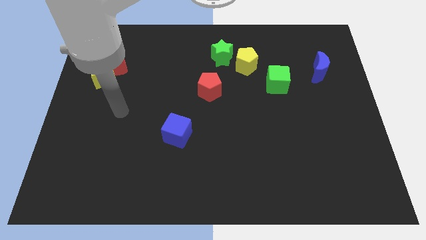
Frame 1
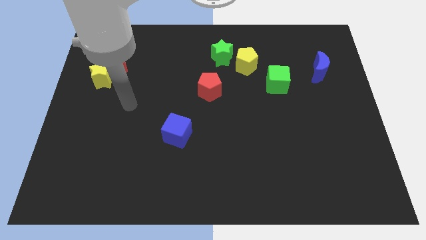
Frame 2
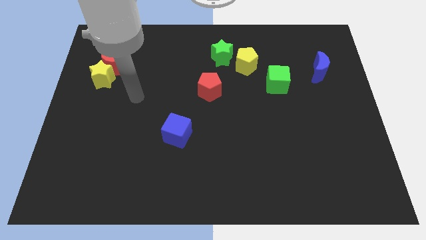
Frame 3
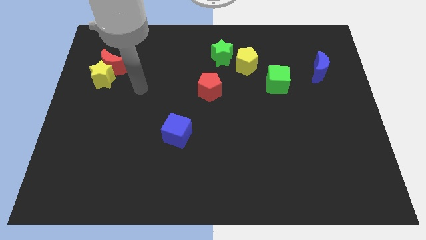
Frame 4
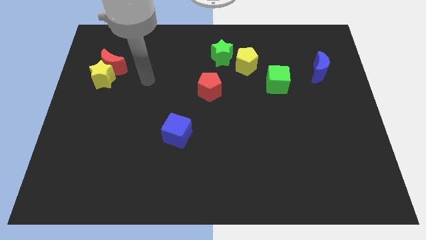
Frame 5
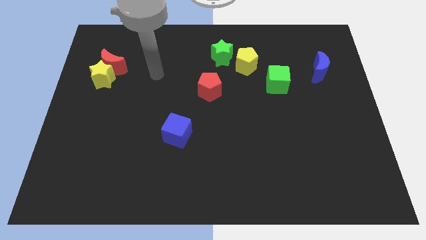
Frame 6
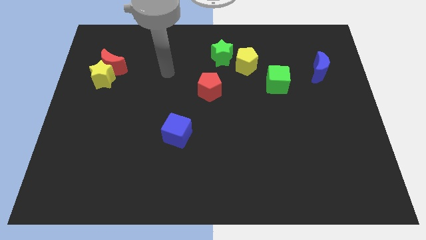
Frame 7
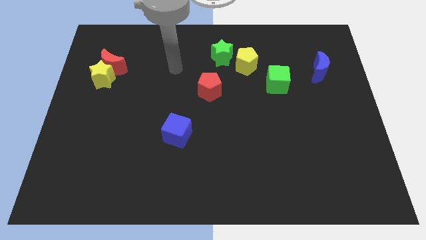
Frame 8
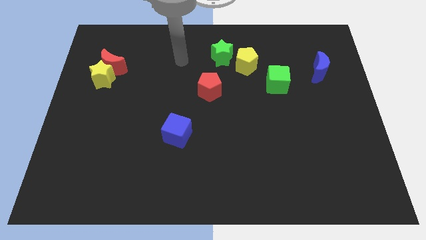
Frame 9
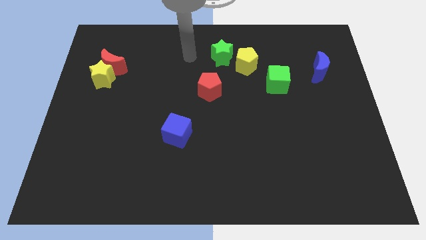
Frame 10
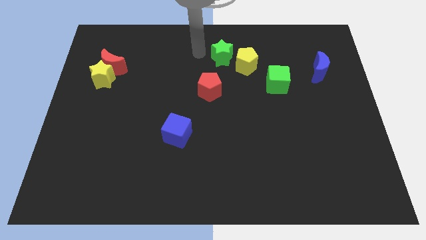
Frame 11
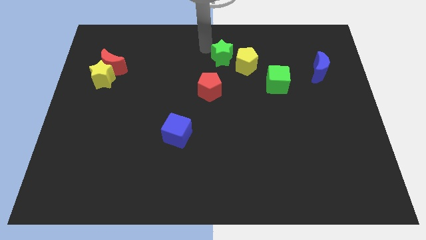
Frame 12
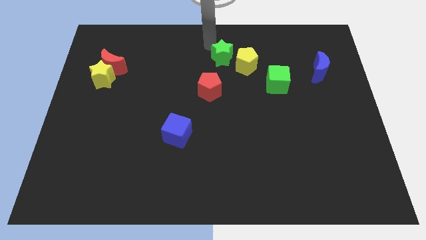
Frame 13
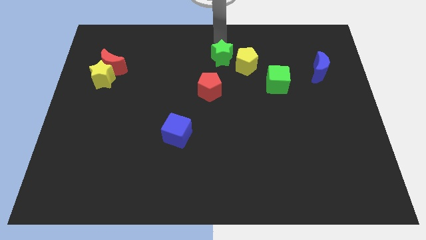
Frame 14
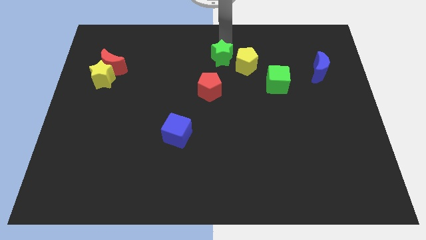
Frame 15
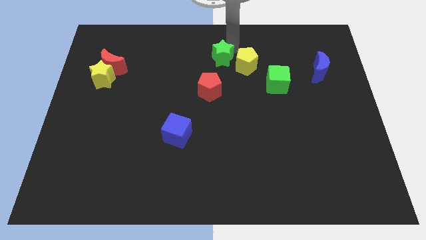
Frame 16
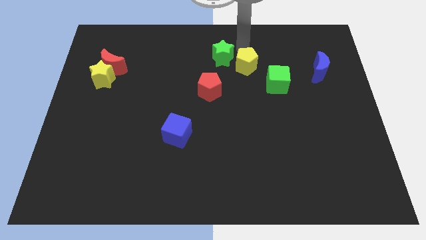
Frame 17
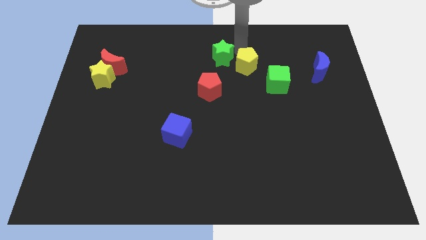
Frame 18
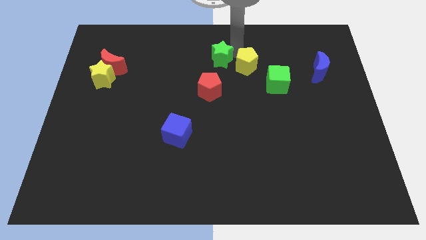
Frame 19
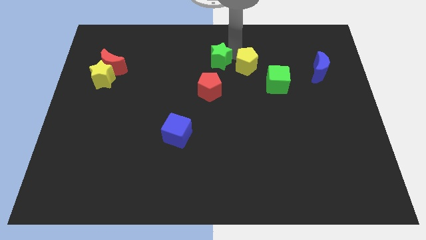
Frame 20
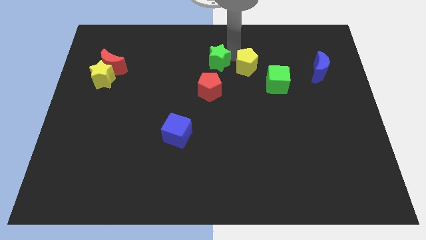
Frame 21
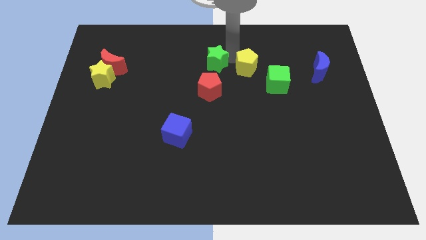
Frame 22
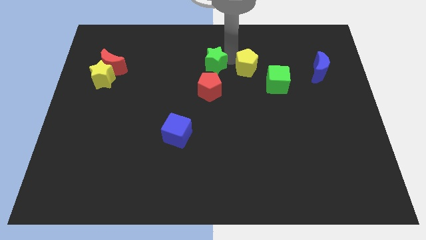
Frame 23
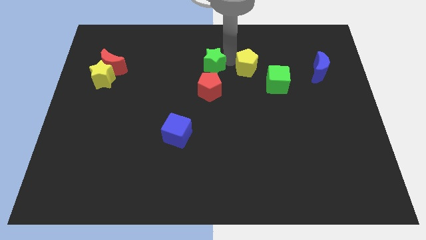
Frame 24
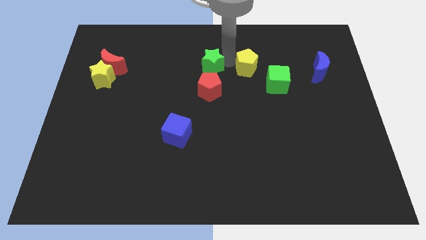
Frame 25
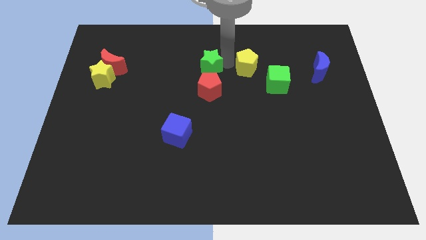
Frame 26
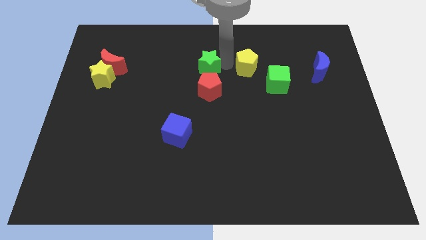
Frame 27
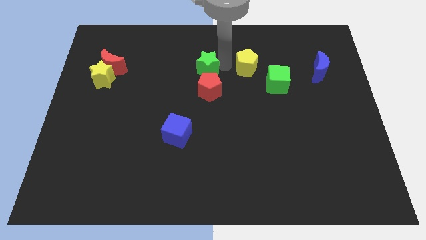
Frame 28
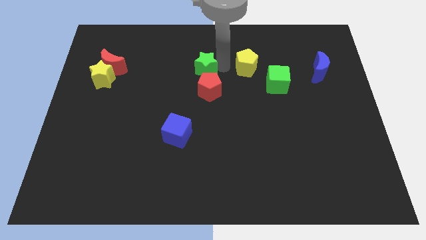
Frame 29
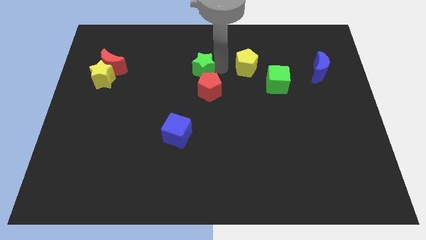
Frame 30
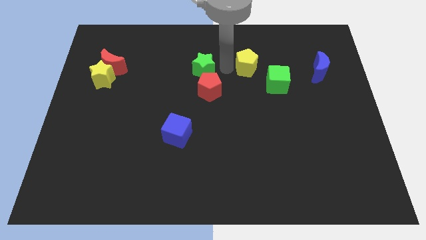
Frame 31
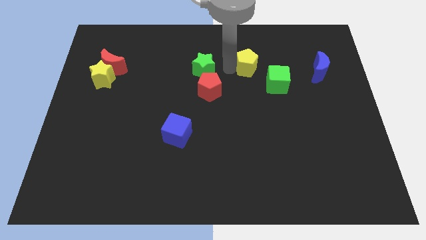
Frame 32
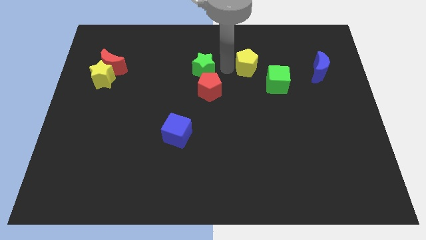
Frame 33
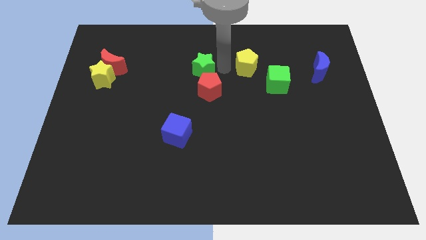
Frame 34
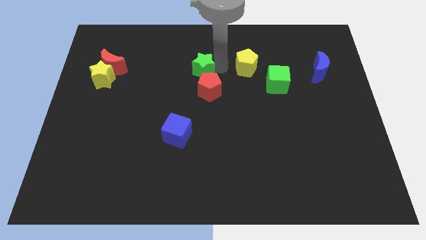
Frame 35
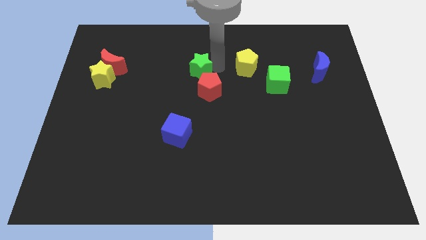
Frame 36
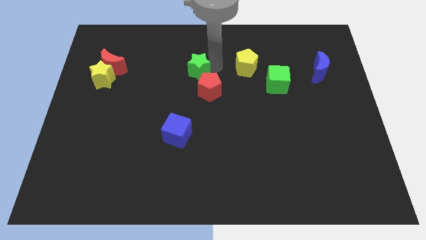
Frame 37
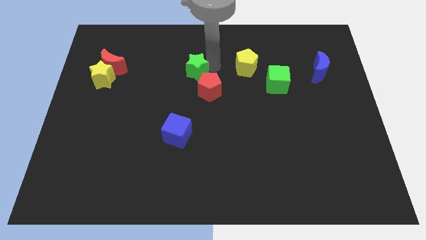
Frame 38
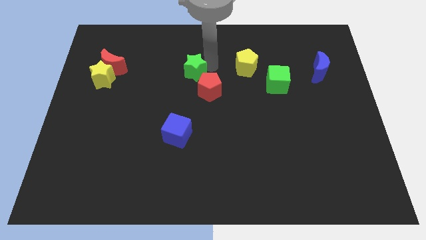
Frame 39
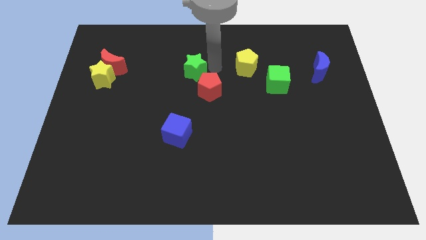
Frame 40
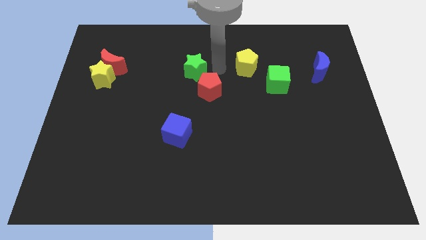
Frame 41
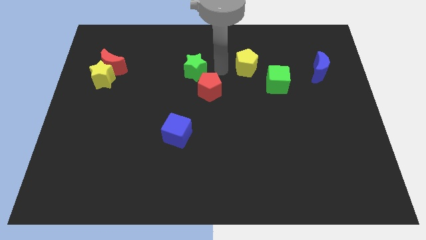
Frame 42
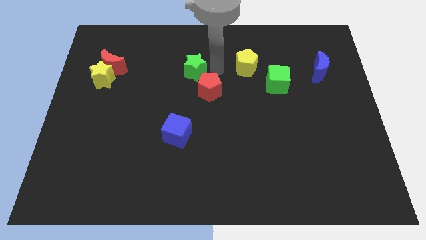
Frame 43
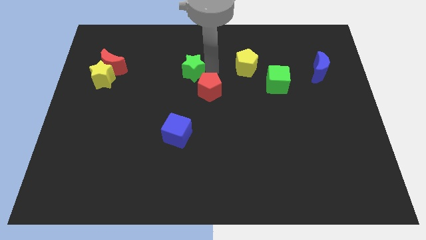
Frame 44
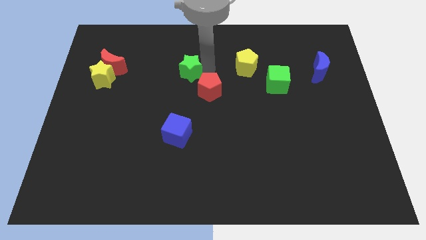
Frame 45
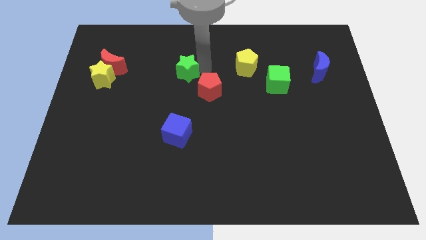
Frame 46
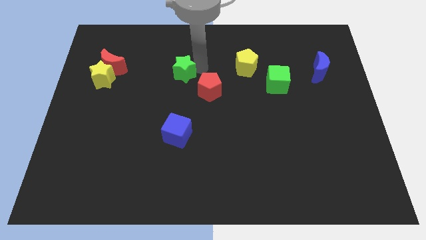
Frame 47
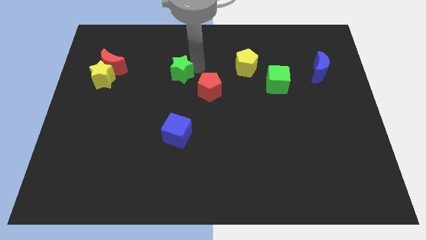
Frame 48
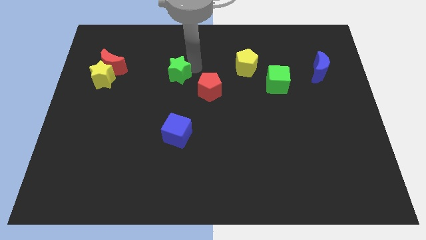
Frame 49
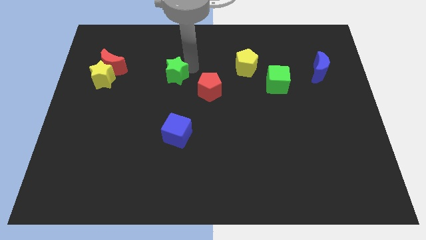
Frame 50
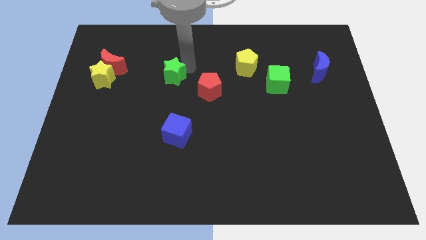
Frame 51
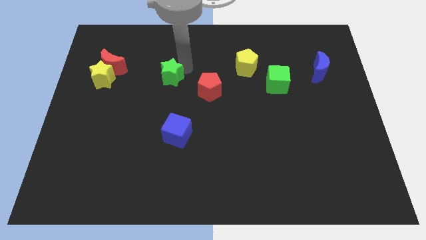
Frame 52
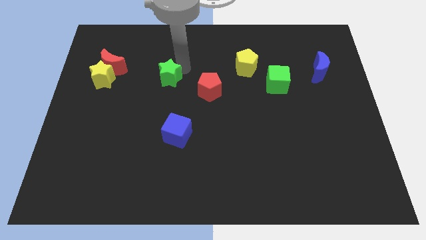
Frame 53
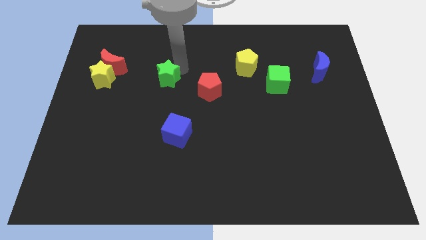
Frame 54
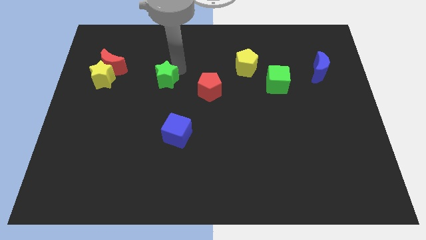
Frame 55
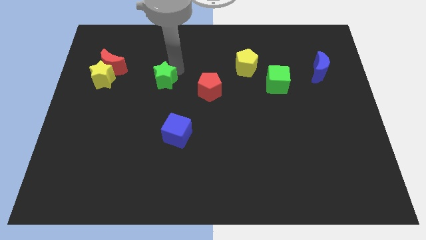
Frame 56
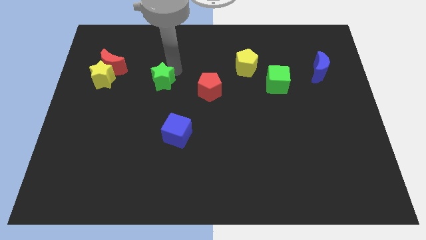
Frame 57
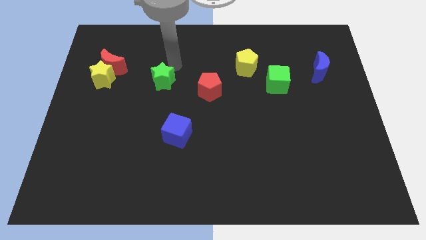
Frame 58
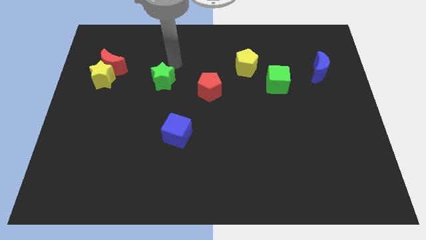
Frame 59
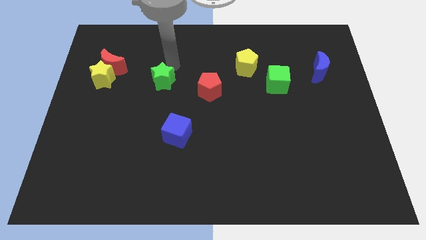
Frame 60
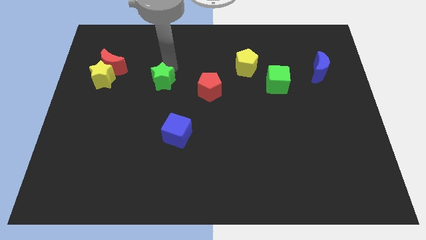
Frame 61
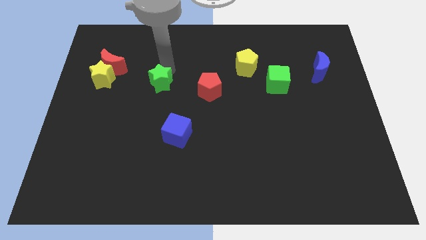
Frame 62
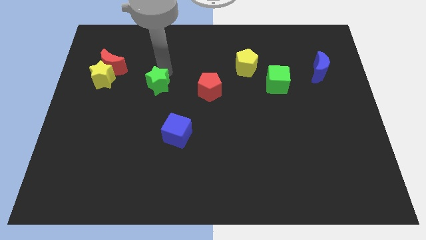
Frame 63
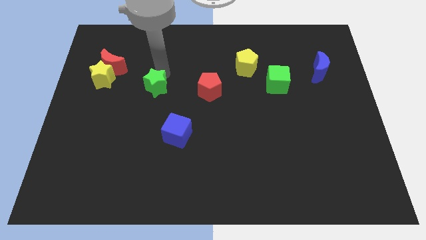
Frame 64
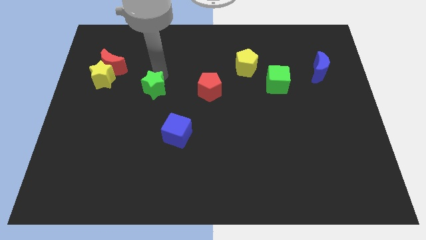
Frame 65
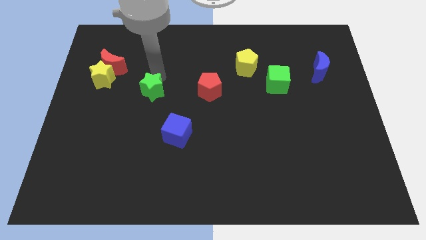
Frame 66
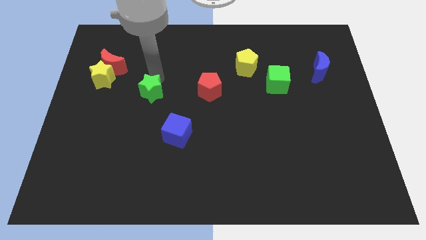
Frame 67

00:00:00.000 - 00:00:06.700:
slide the green star downwards and then left

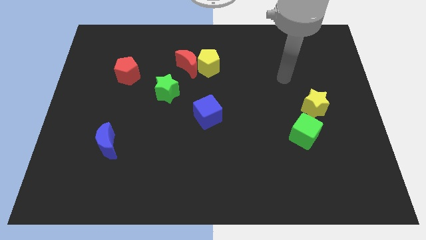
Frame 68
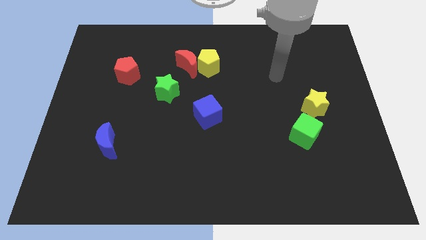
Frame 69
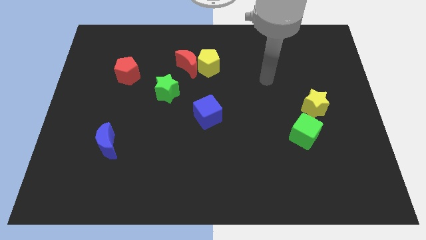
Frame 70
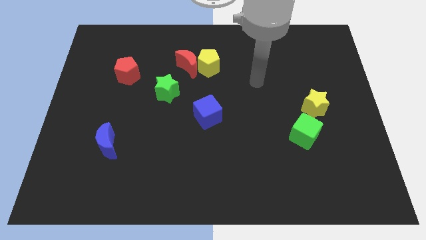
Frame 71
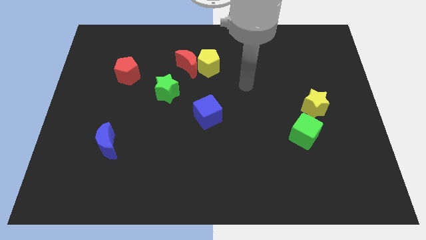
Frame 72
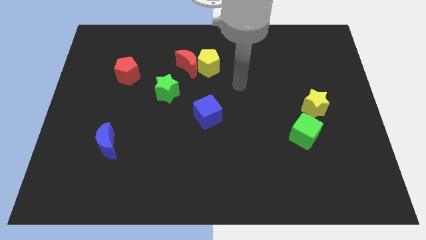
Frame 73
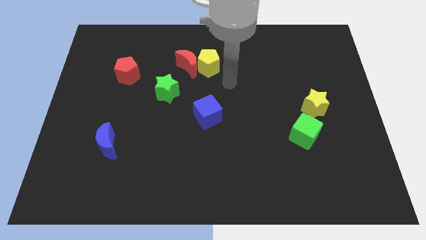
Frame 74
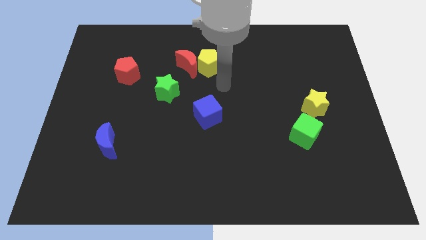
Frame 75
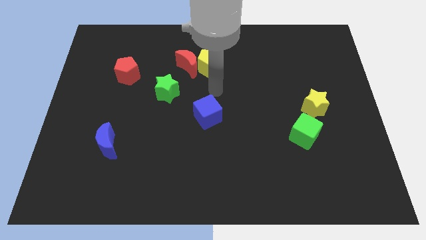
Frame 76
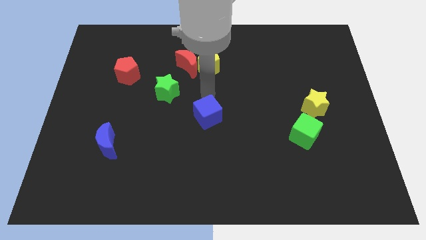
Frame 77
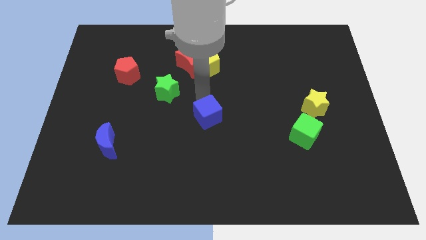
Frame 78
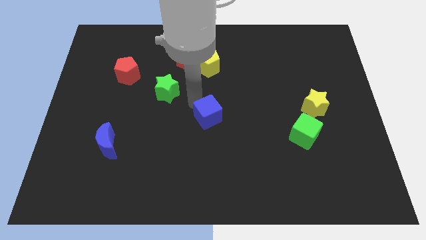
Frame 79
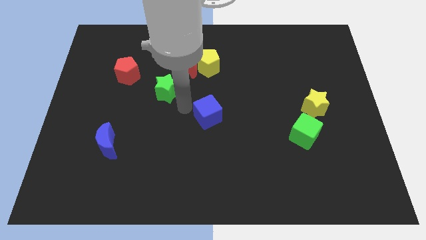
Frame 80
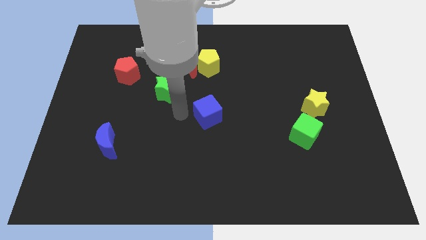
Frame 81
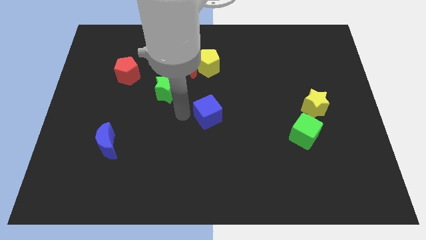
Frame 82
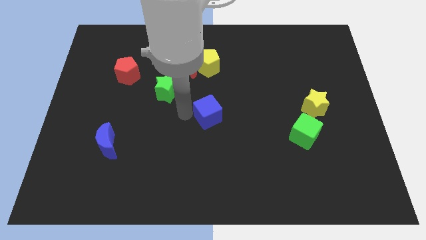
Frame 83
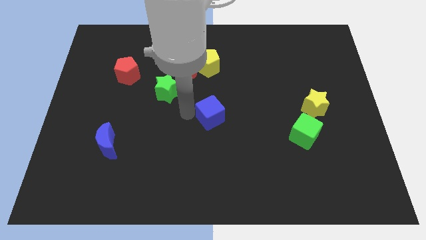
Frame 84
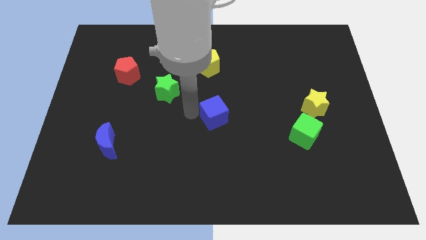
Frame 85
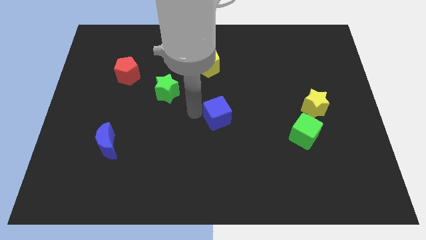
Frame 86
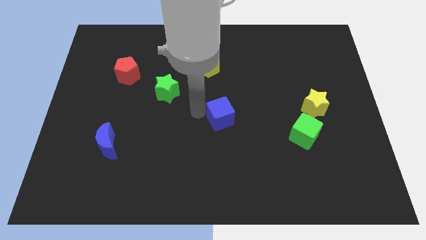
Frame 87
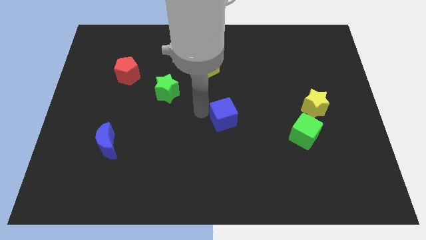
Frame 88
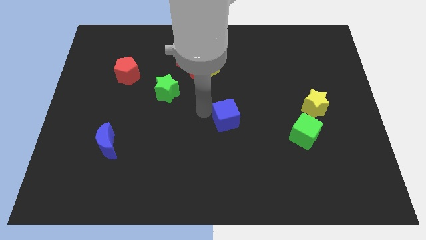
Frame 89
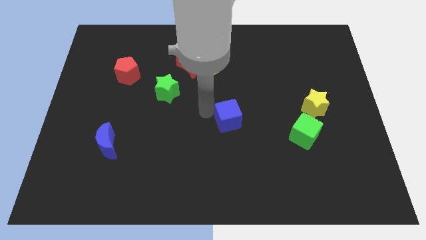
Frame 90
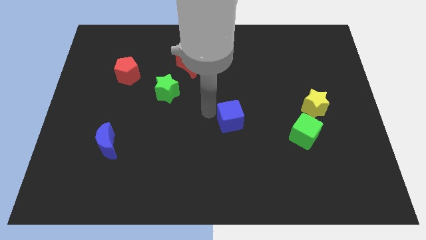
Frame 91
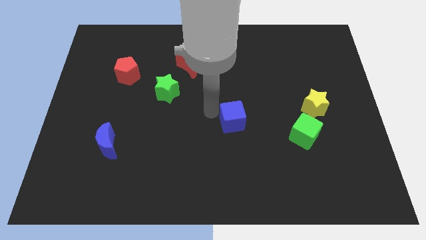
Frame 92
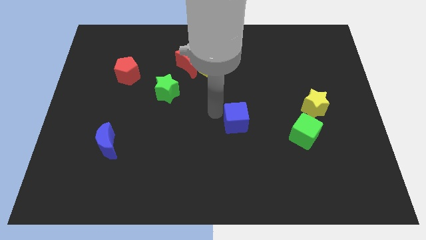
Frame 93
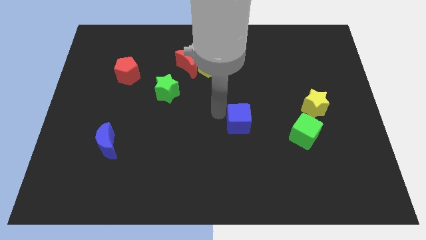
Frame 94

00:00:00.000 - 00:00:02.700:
push the blue cube right a little
